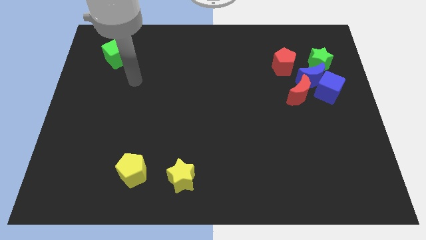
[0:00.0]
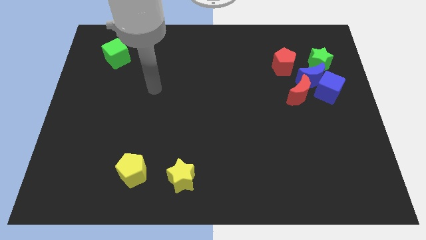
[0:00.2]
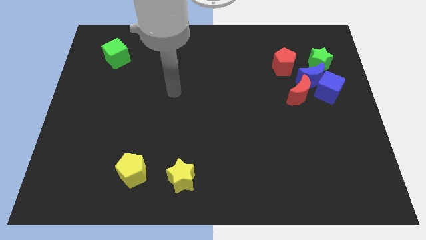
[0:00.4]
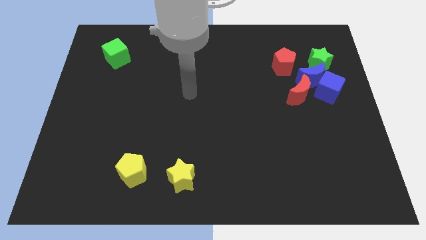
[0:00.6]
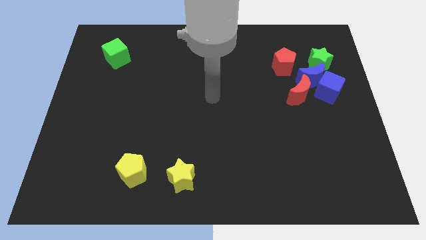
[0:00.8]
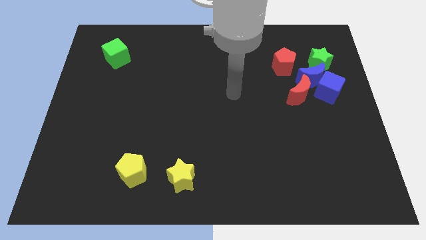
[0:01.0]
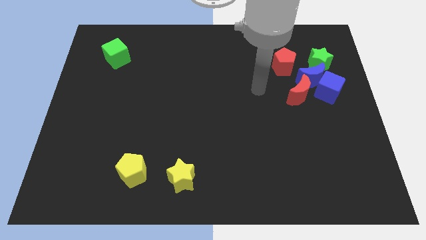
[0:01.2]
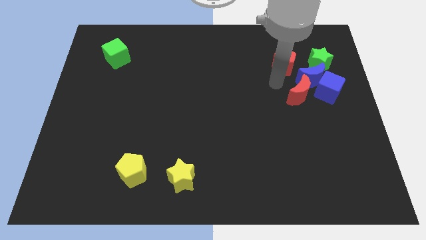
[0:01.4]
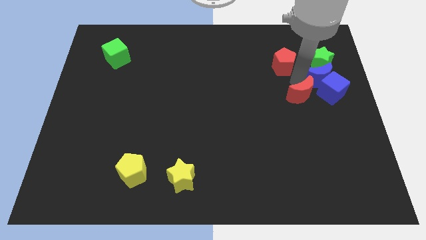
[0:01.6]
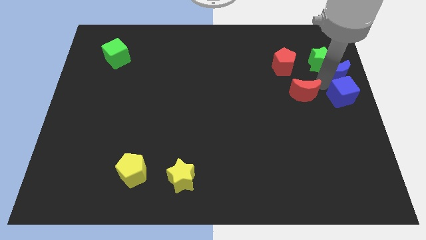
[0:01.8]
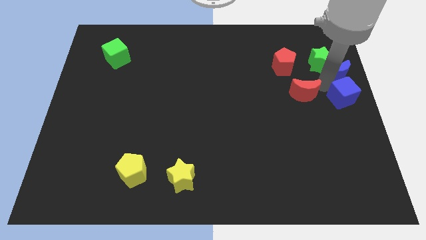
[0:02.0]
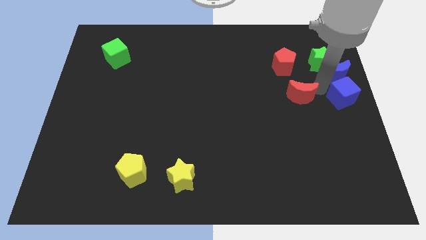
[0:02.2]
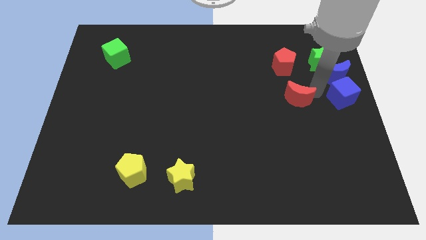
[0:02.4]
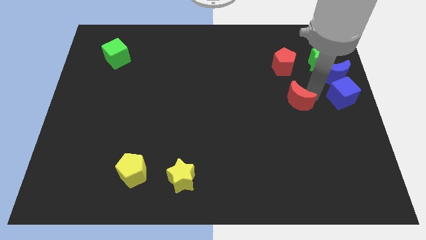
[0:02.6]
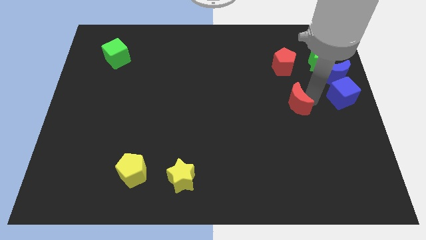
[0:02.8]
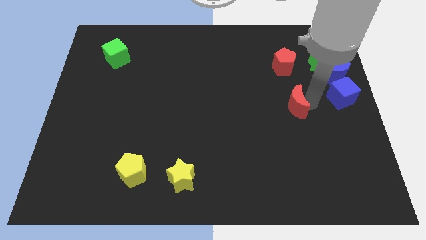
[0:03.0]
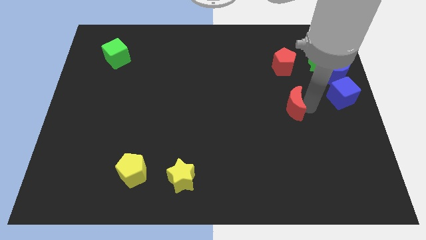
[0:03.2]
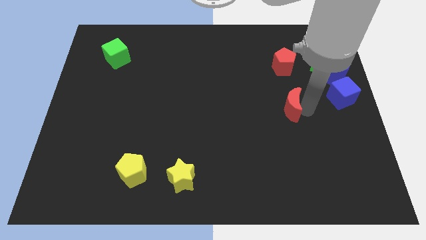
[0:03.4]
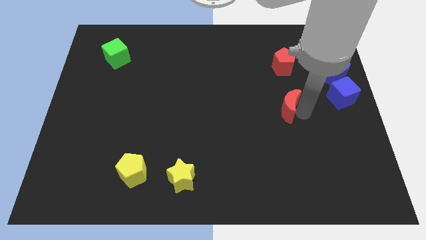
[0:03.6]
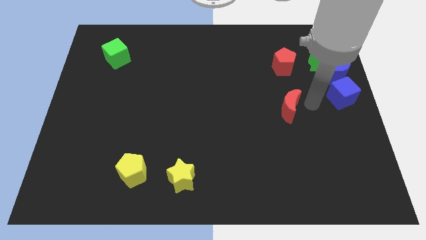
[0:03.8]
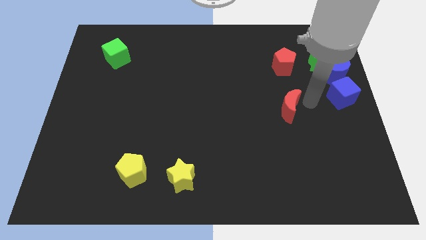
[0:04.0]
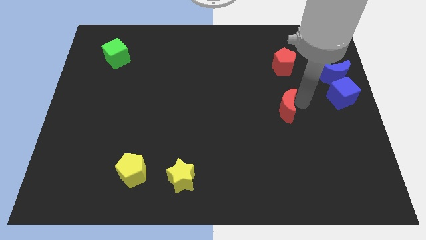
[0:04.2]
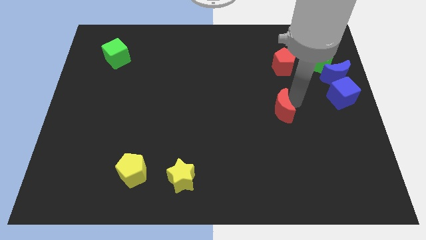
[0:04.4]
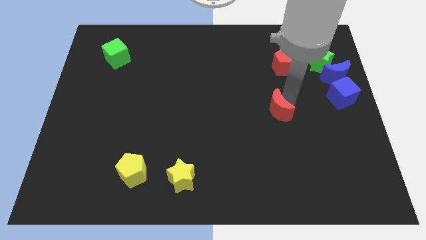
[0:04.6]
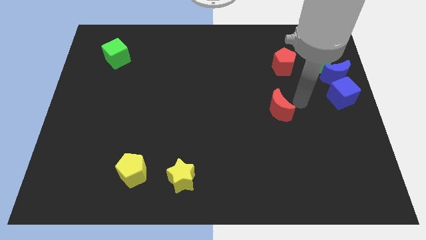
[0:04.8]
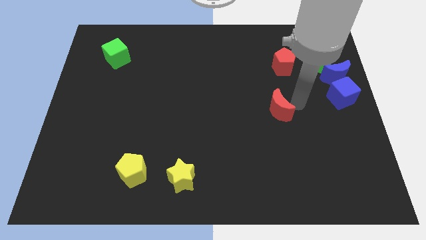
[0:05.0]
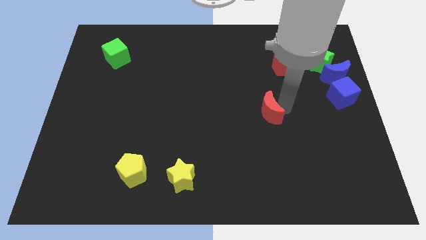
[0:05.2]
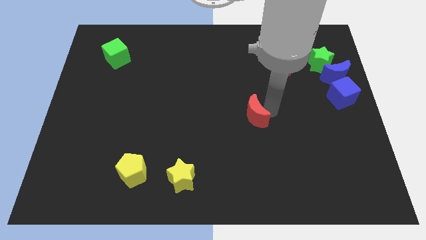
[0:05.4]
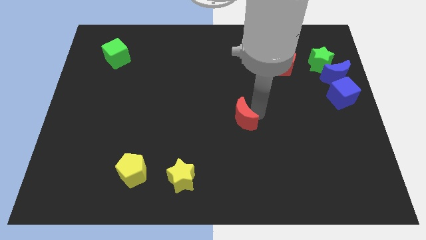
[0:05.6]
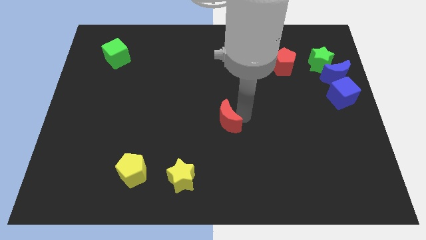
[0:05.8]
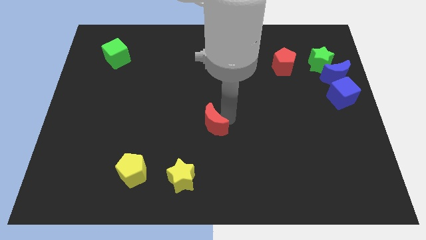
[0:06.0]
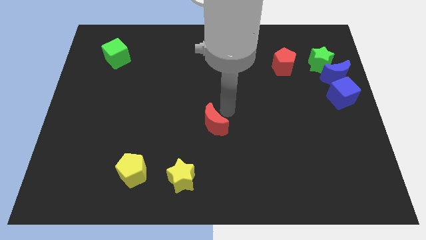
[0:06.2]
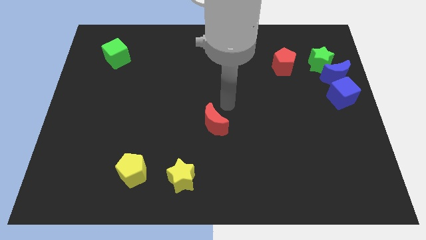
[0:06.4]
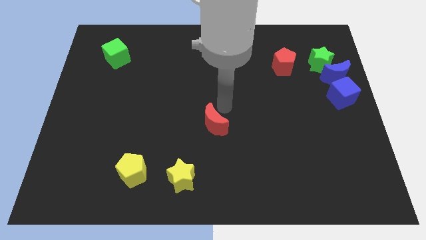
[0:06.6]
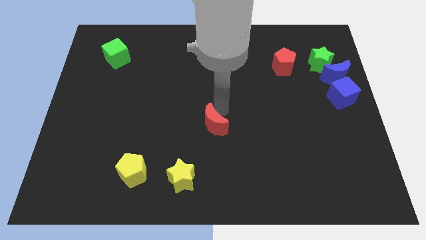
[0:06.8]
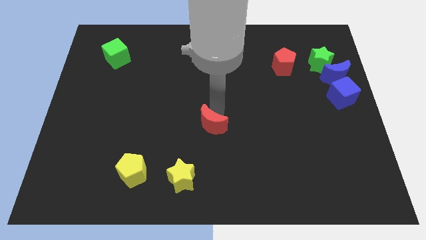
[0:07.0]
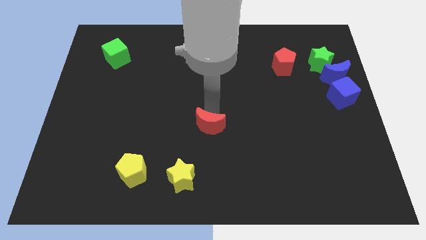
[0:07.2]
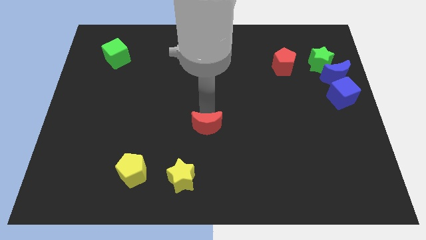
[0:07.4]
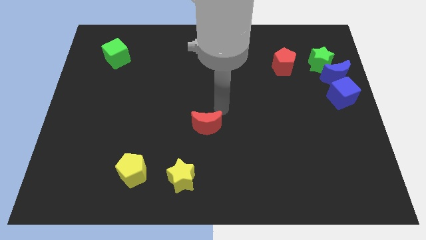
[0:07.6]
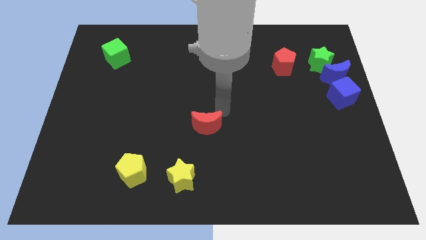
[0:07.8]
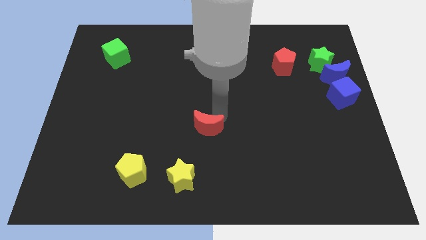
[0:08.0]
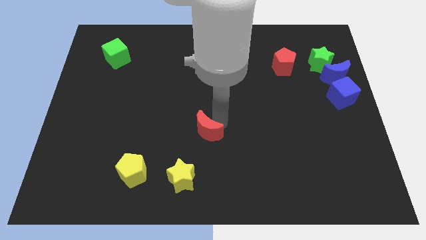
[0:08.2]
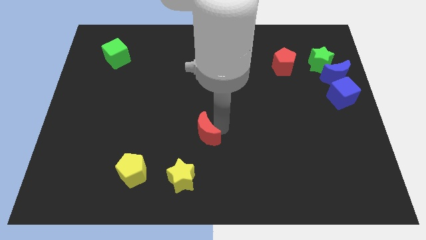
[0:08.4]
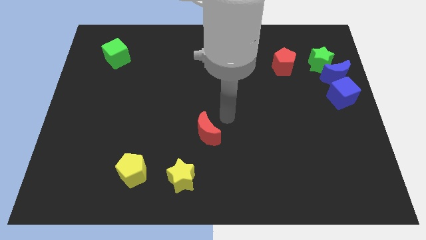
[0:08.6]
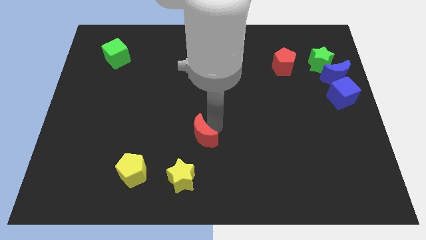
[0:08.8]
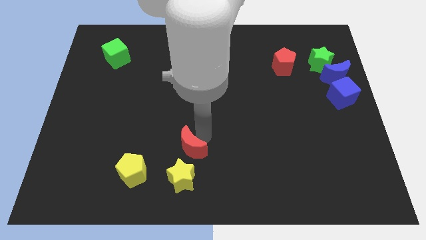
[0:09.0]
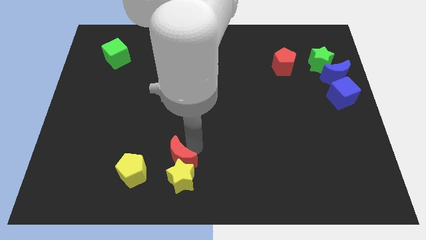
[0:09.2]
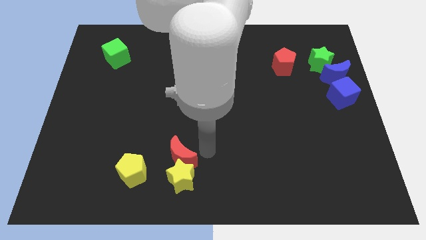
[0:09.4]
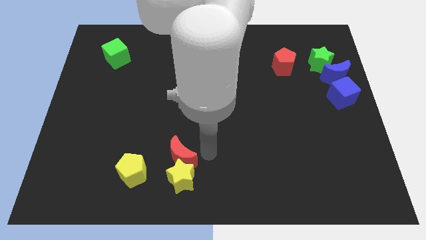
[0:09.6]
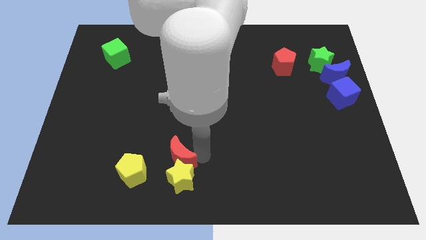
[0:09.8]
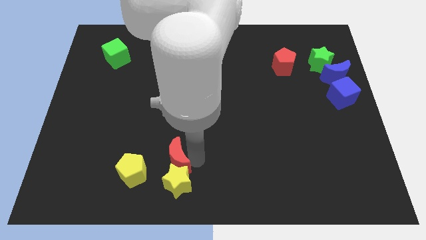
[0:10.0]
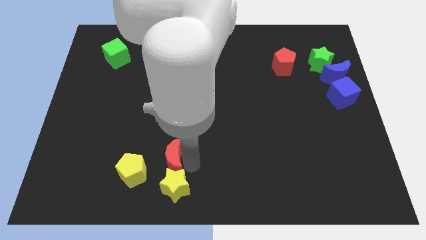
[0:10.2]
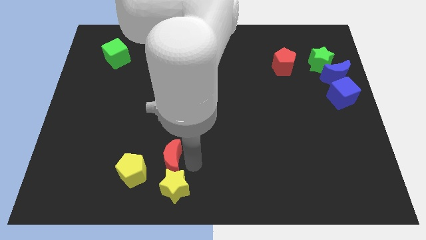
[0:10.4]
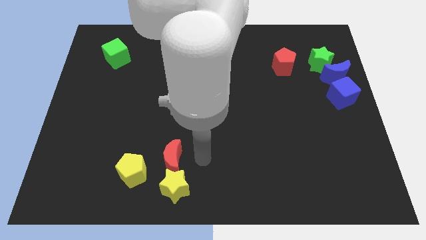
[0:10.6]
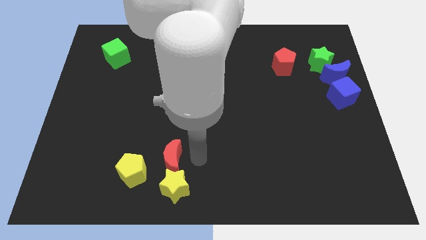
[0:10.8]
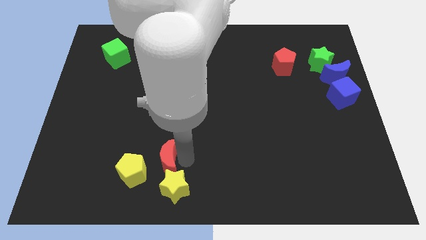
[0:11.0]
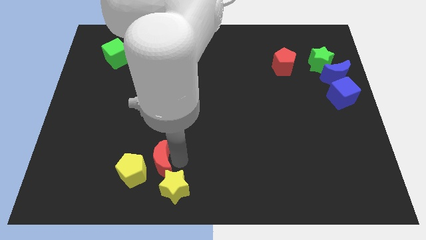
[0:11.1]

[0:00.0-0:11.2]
move the red moon close to the yellow pentagon

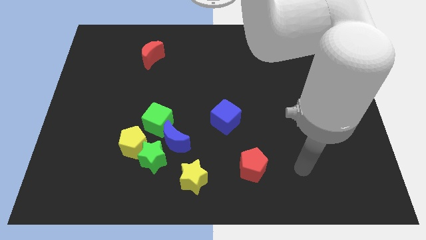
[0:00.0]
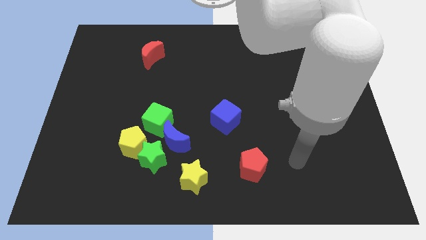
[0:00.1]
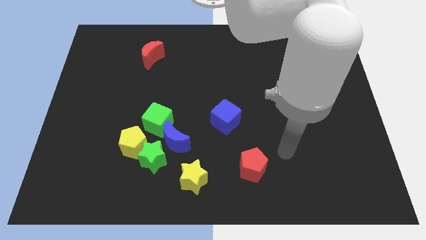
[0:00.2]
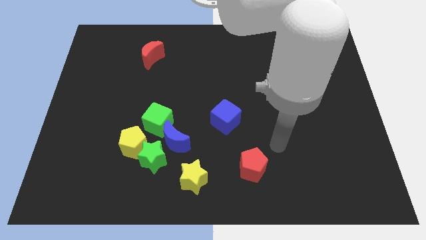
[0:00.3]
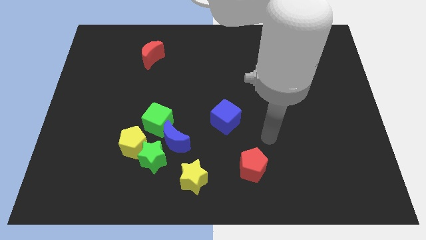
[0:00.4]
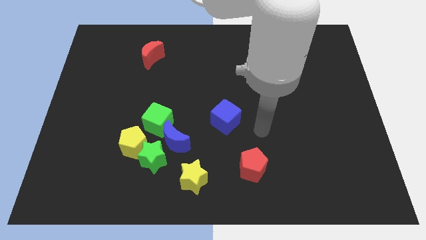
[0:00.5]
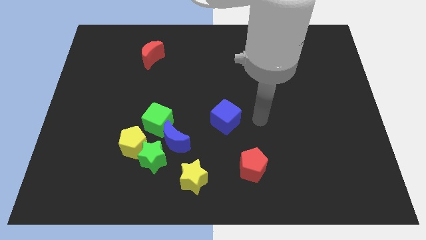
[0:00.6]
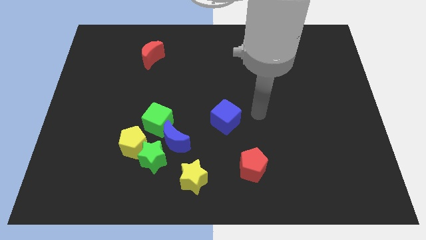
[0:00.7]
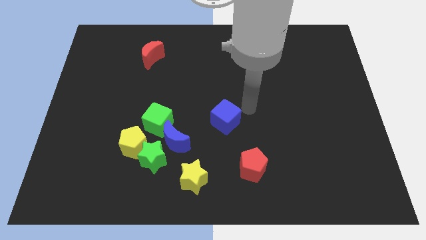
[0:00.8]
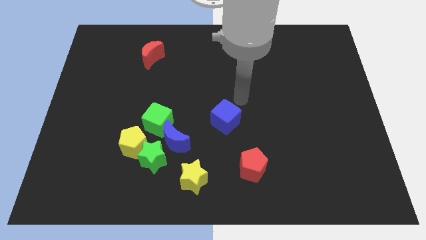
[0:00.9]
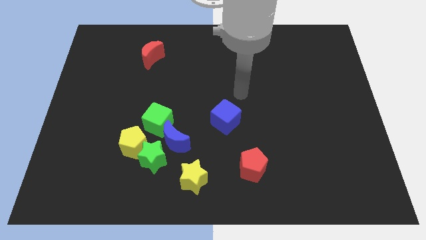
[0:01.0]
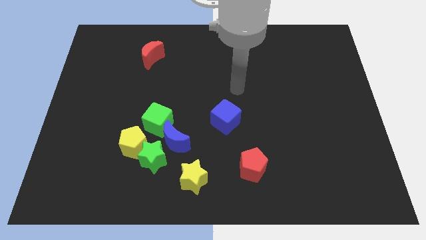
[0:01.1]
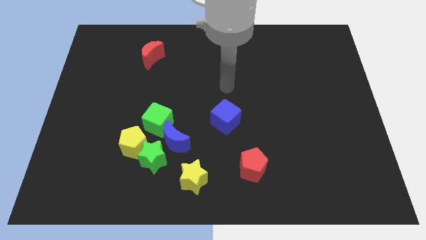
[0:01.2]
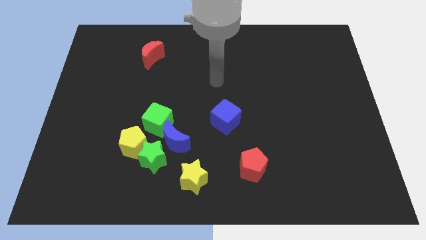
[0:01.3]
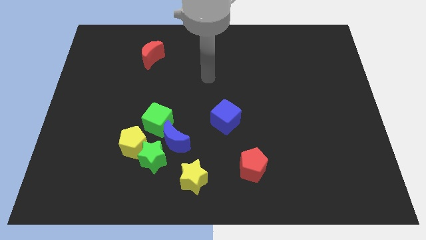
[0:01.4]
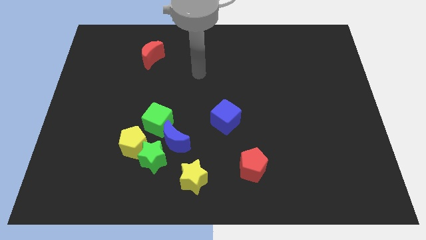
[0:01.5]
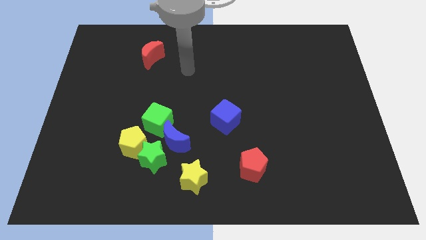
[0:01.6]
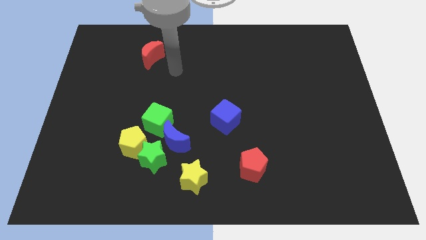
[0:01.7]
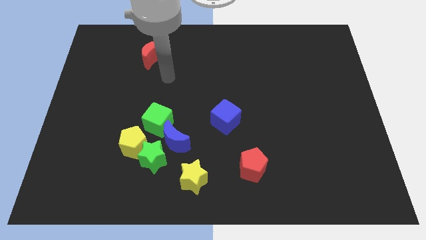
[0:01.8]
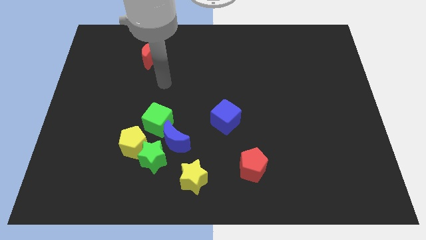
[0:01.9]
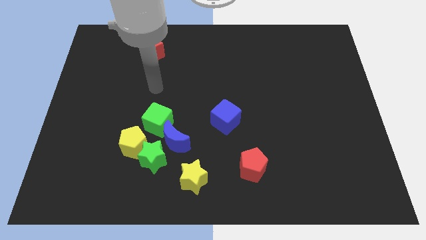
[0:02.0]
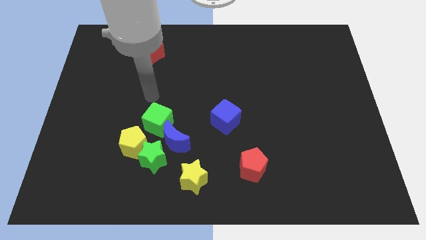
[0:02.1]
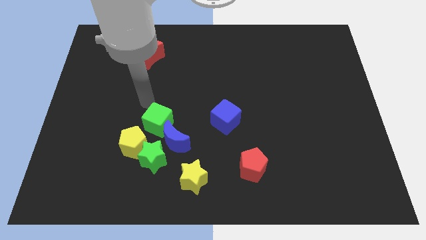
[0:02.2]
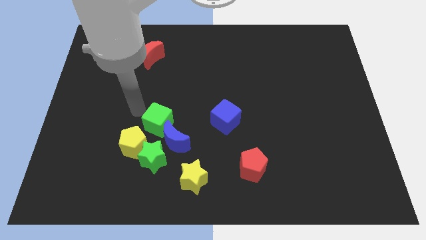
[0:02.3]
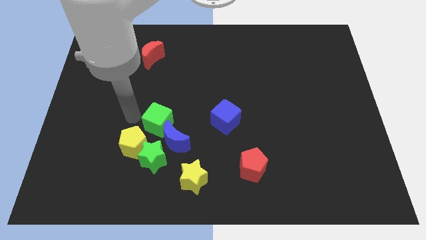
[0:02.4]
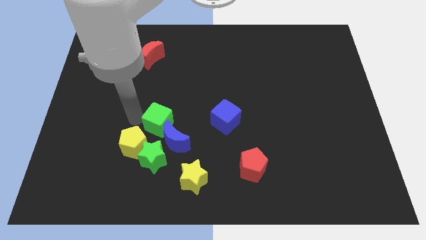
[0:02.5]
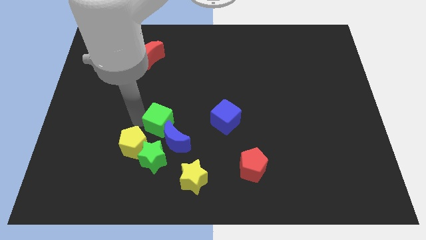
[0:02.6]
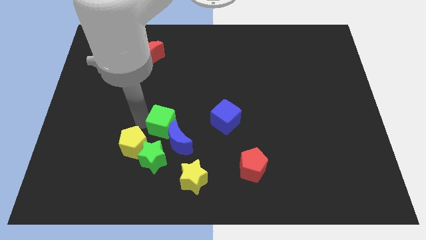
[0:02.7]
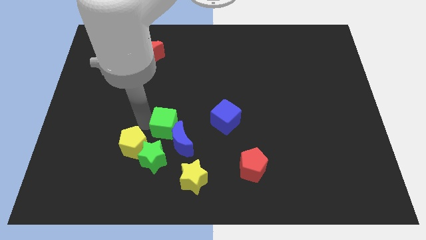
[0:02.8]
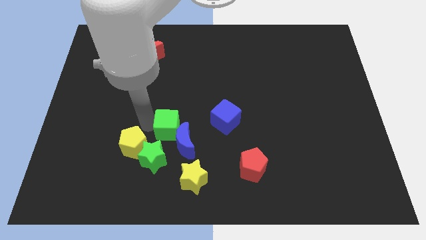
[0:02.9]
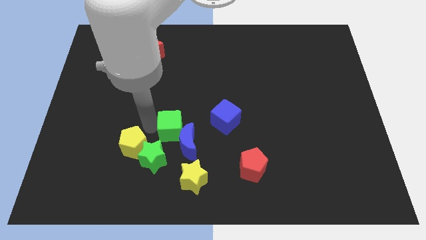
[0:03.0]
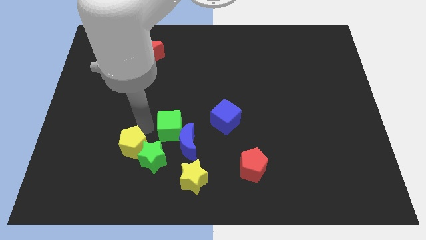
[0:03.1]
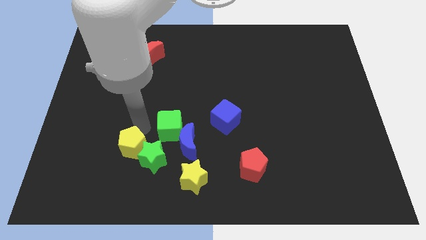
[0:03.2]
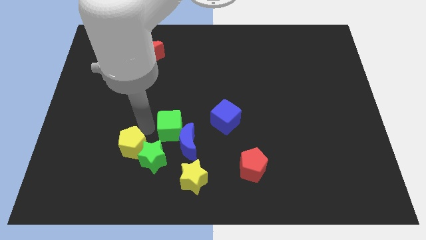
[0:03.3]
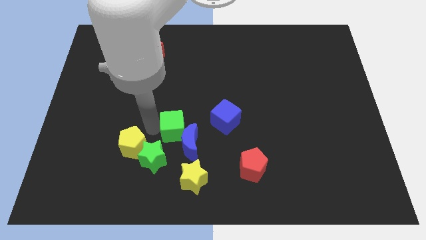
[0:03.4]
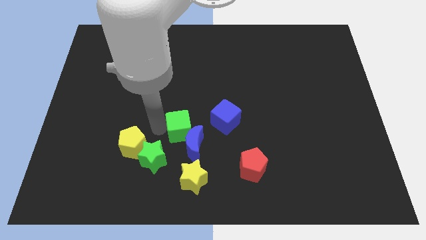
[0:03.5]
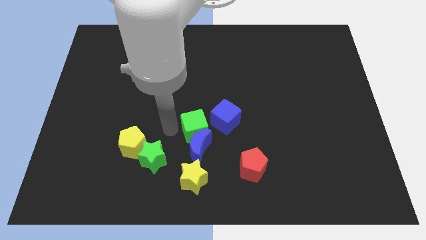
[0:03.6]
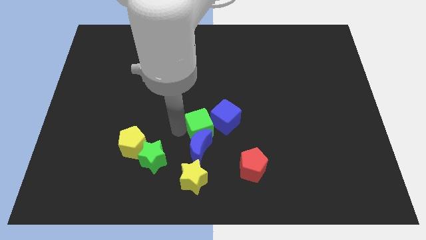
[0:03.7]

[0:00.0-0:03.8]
slide the green cube to the blue cube
